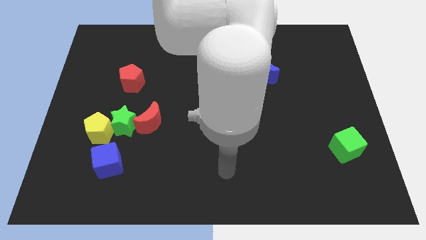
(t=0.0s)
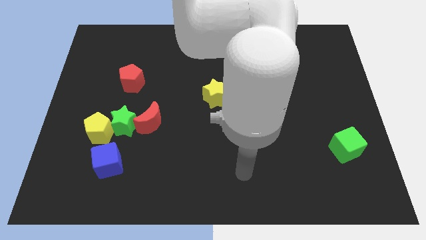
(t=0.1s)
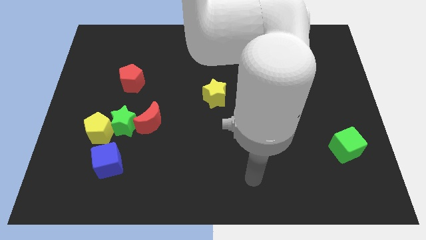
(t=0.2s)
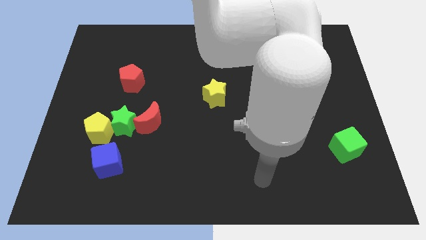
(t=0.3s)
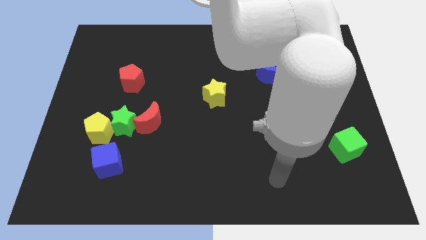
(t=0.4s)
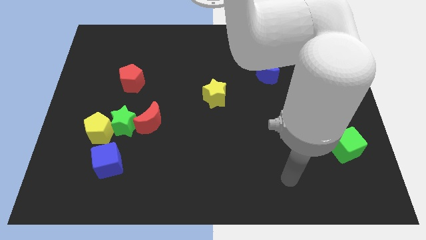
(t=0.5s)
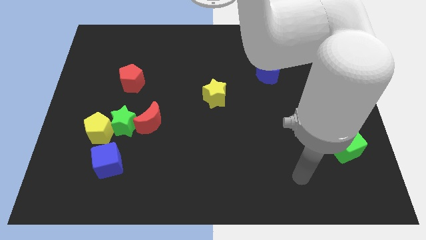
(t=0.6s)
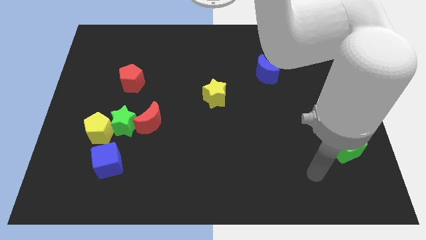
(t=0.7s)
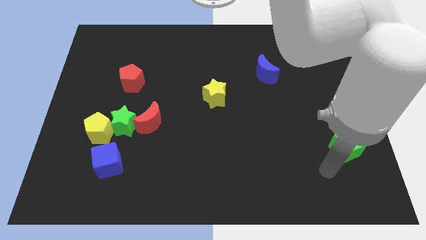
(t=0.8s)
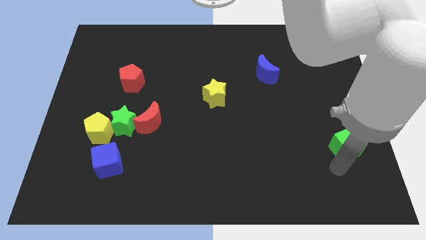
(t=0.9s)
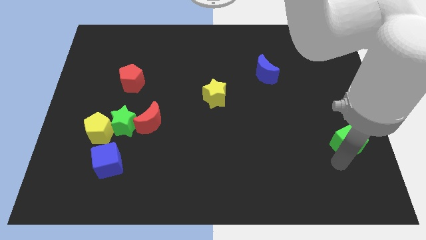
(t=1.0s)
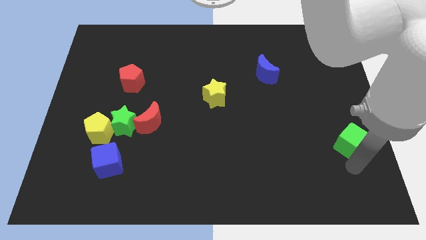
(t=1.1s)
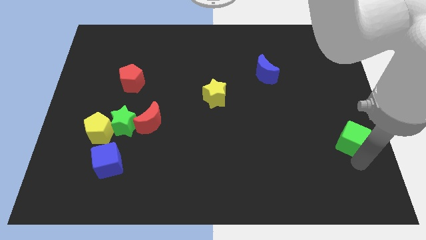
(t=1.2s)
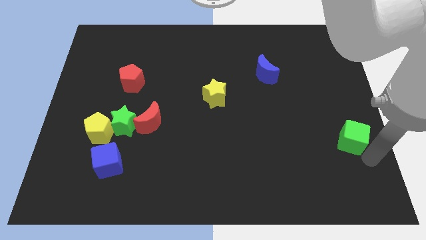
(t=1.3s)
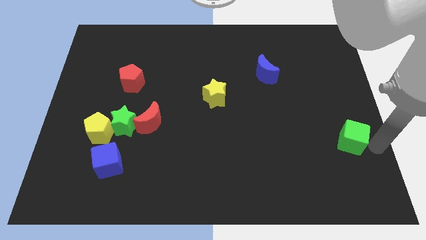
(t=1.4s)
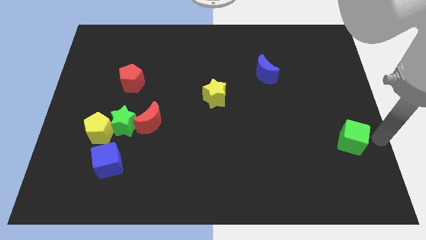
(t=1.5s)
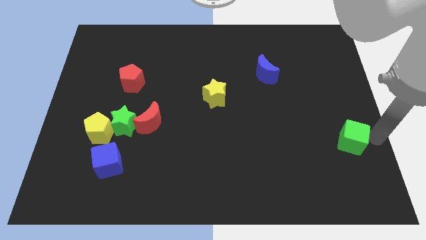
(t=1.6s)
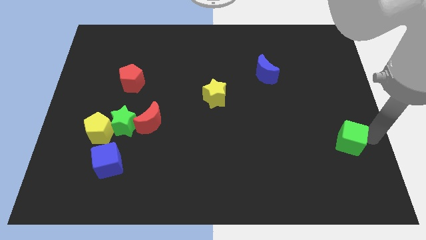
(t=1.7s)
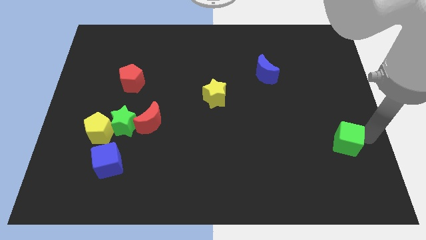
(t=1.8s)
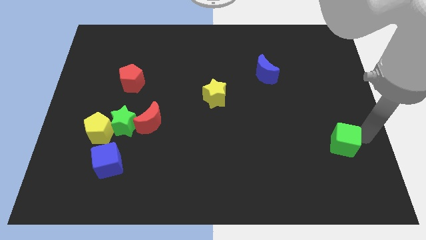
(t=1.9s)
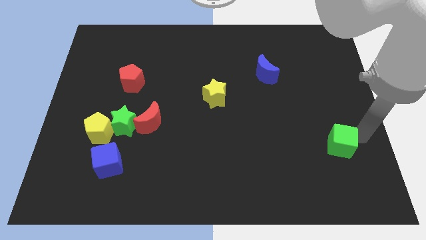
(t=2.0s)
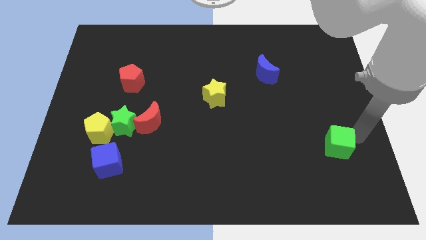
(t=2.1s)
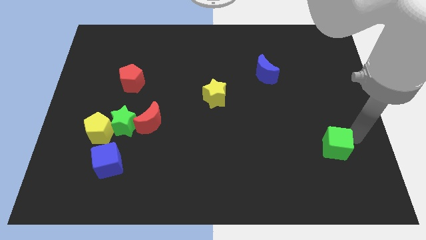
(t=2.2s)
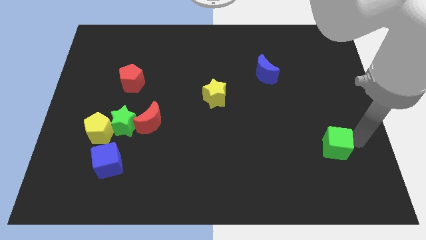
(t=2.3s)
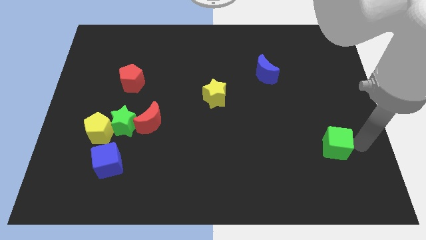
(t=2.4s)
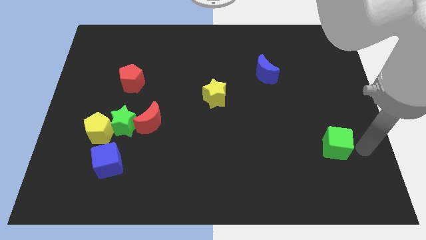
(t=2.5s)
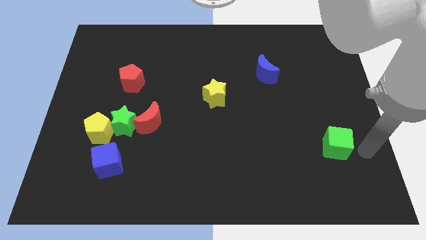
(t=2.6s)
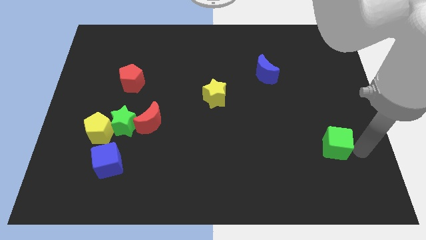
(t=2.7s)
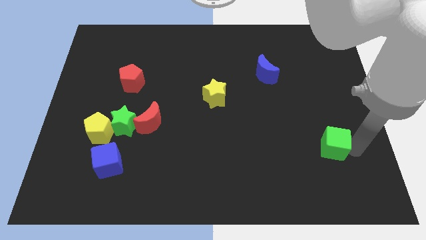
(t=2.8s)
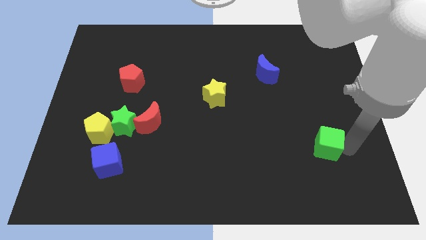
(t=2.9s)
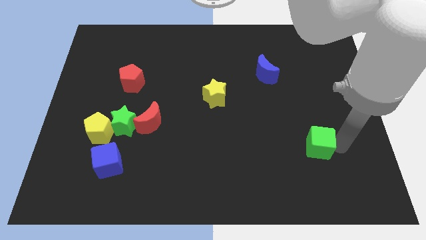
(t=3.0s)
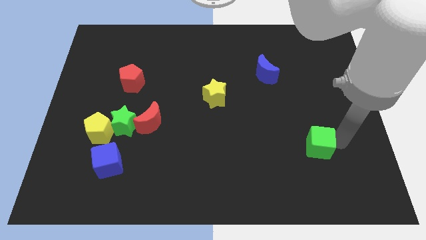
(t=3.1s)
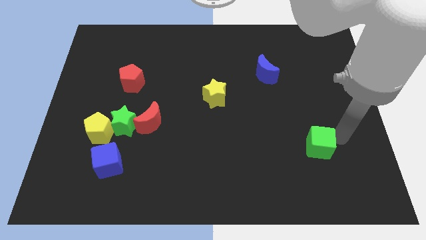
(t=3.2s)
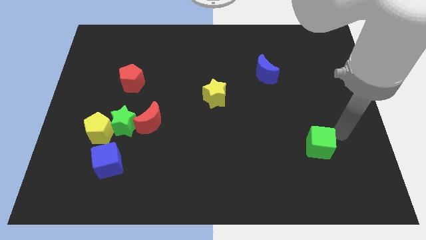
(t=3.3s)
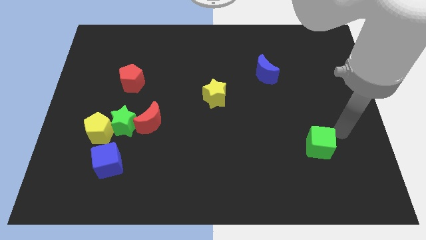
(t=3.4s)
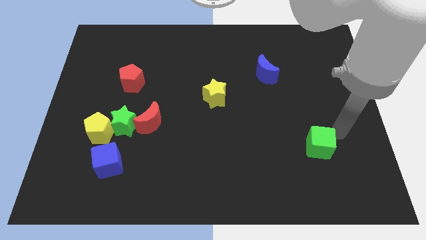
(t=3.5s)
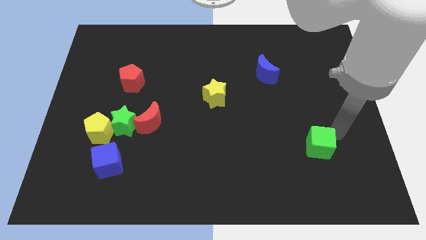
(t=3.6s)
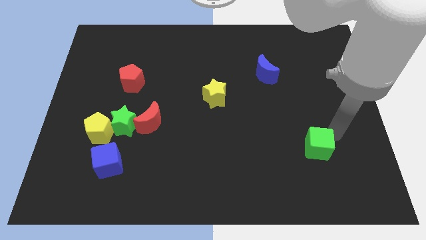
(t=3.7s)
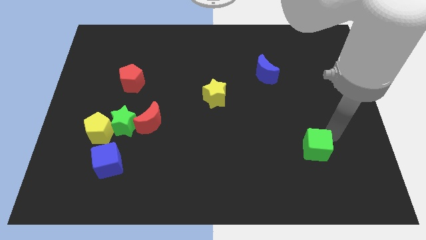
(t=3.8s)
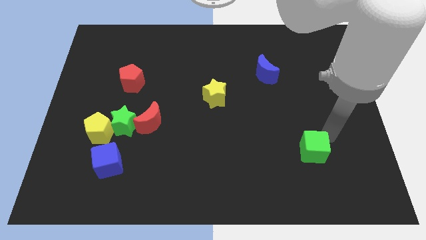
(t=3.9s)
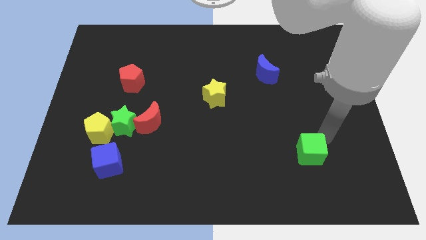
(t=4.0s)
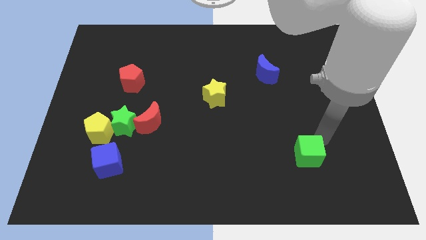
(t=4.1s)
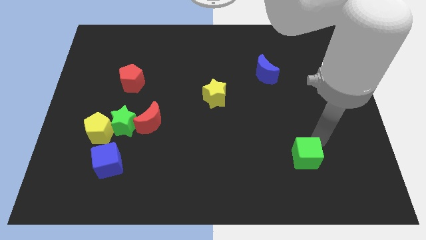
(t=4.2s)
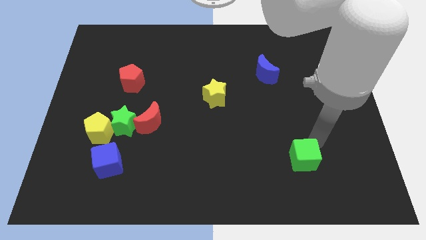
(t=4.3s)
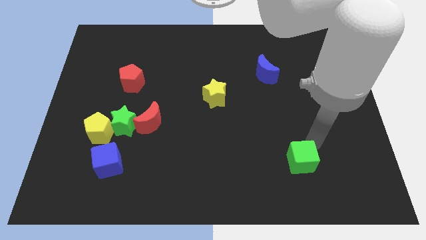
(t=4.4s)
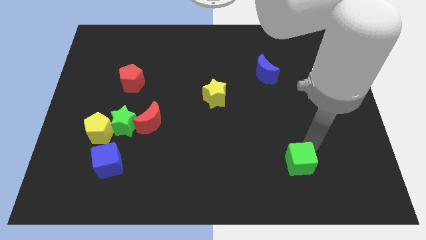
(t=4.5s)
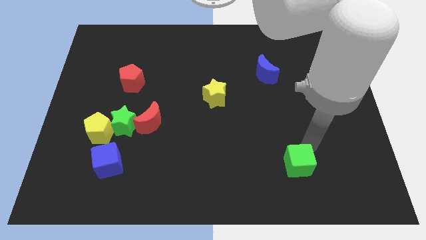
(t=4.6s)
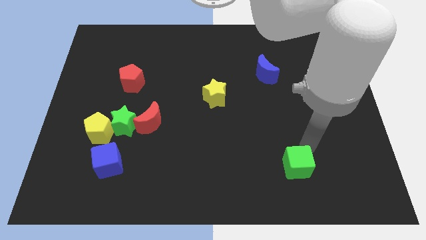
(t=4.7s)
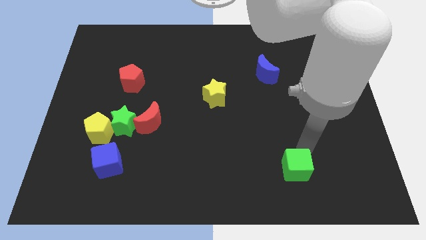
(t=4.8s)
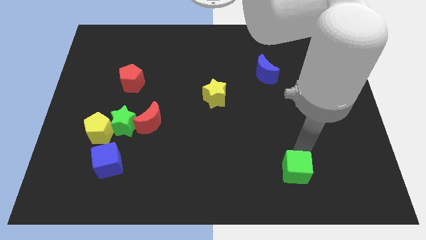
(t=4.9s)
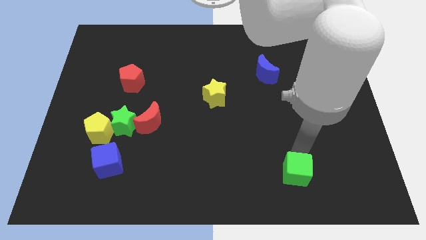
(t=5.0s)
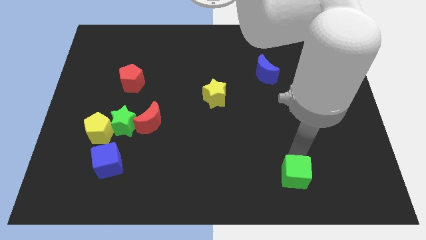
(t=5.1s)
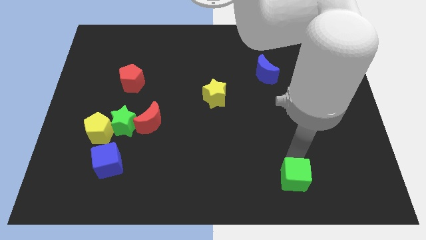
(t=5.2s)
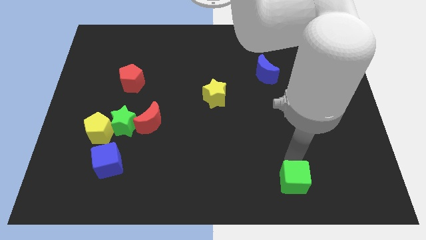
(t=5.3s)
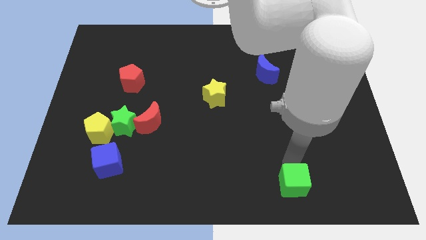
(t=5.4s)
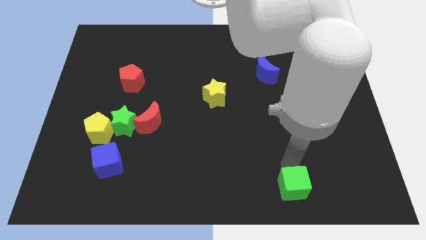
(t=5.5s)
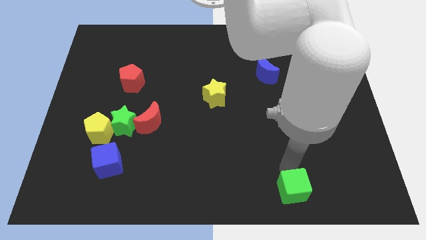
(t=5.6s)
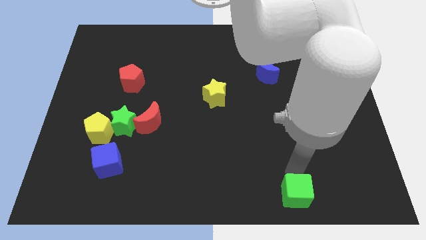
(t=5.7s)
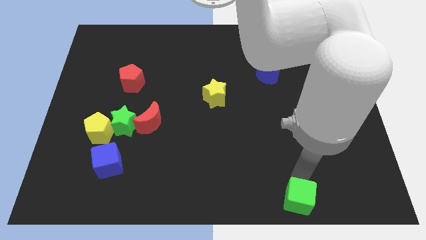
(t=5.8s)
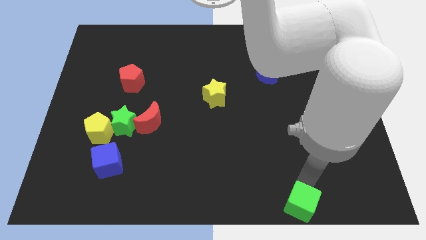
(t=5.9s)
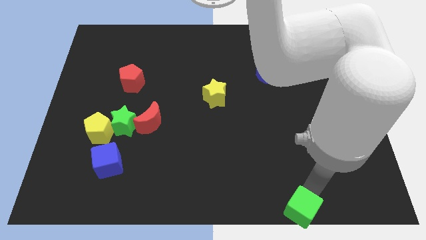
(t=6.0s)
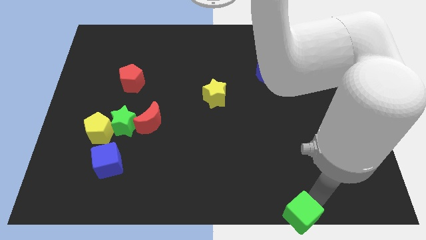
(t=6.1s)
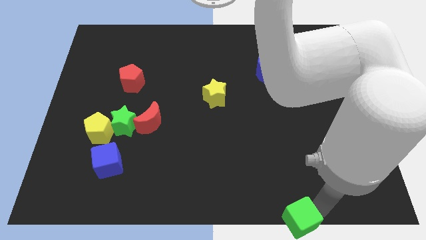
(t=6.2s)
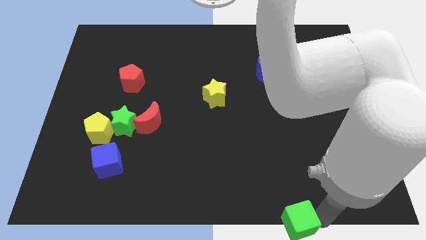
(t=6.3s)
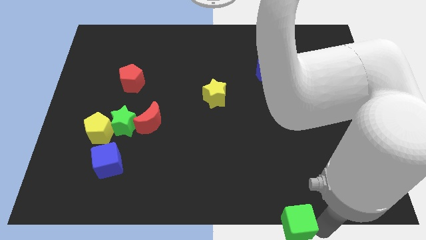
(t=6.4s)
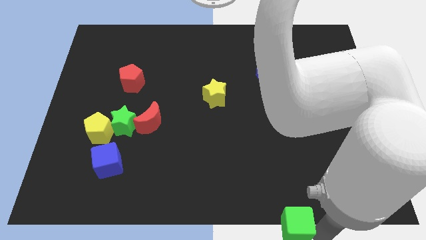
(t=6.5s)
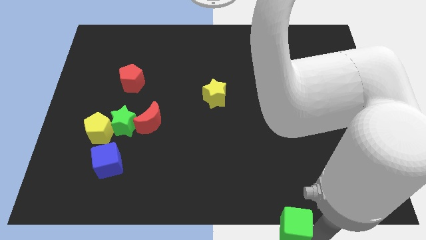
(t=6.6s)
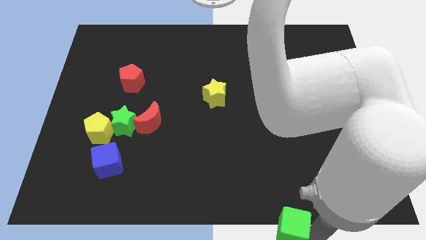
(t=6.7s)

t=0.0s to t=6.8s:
put the green cube to the bottom side
